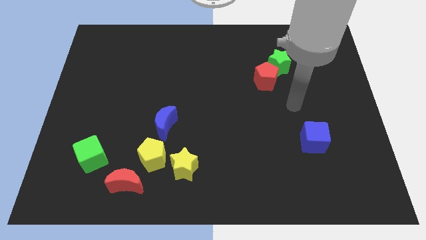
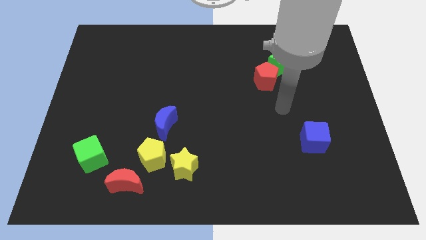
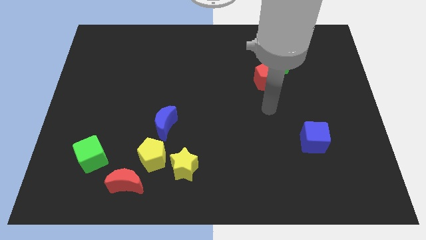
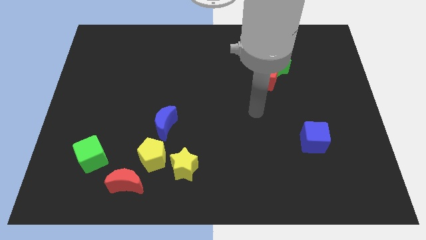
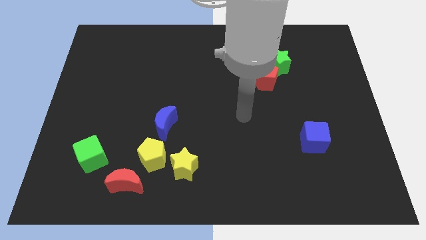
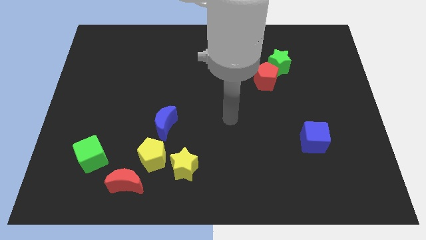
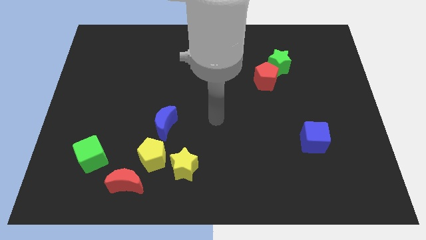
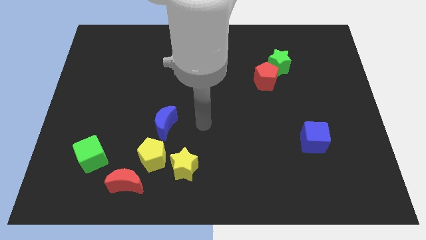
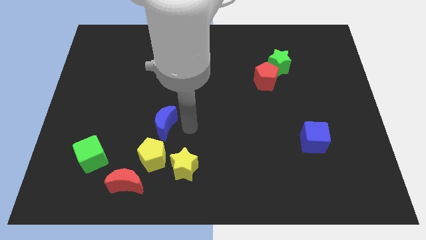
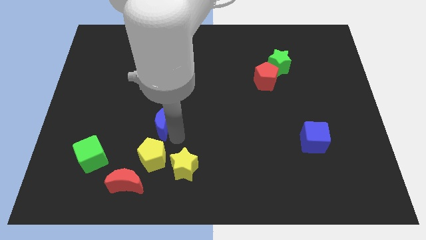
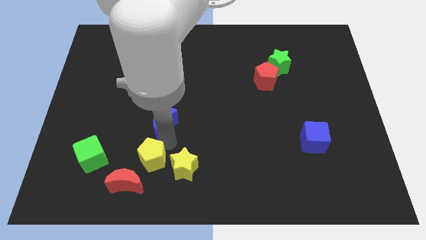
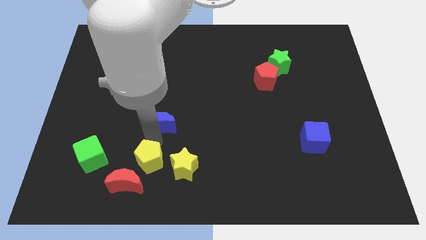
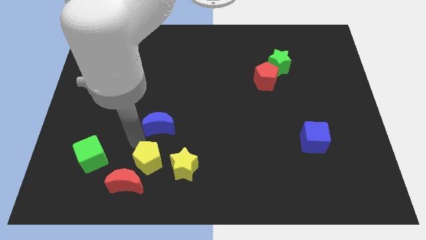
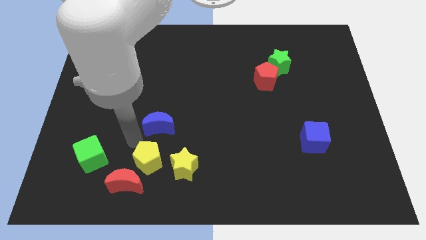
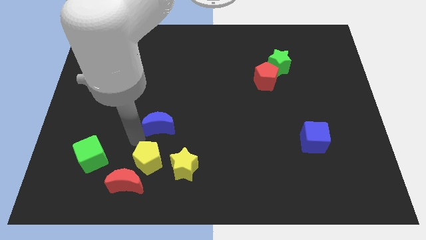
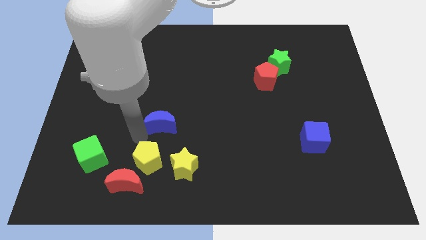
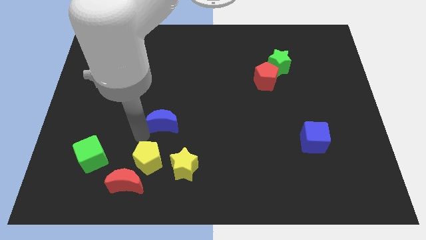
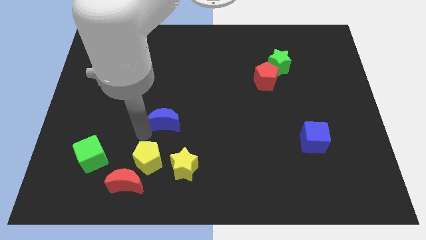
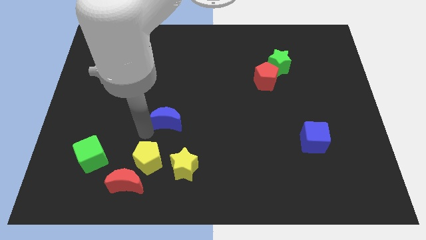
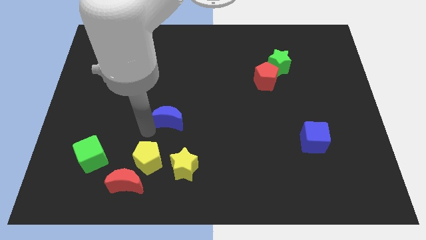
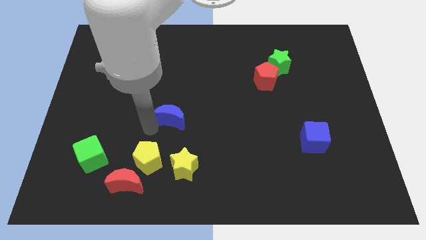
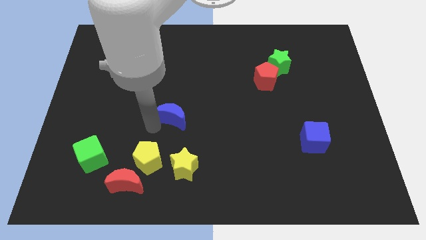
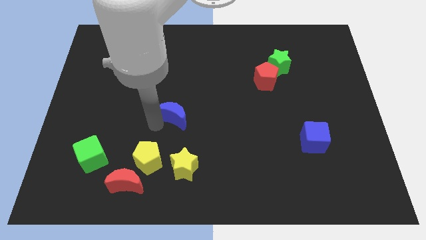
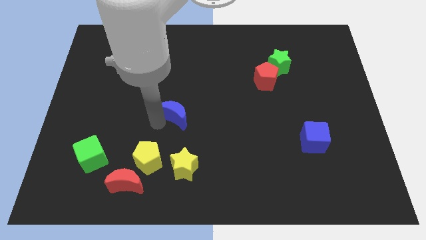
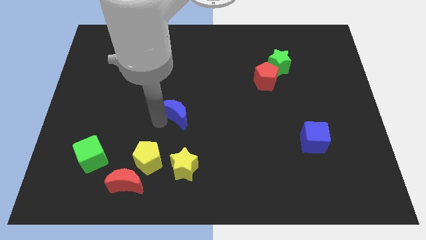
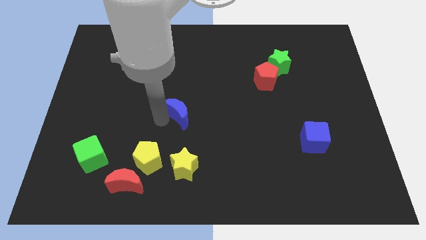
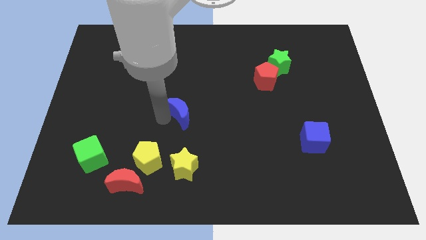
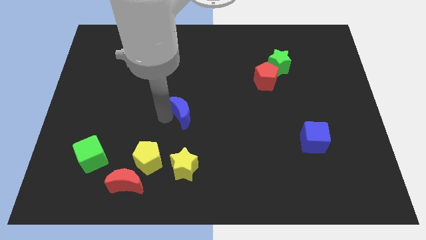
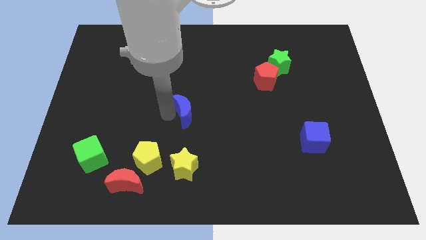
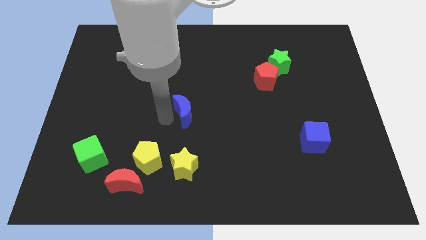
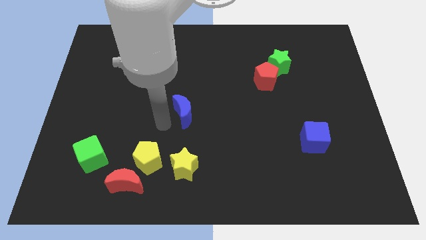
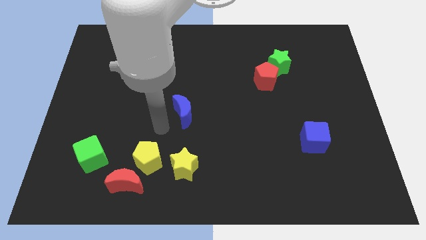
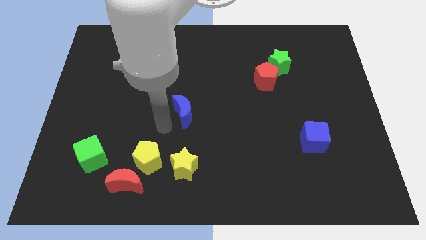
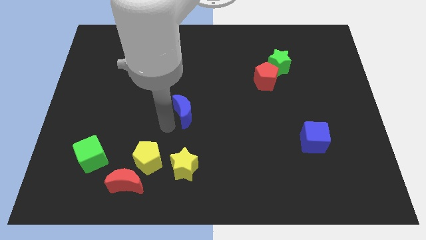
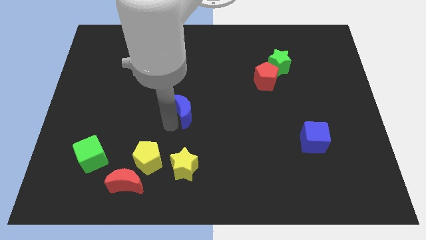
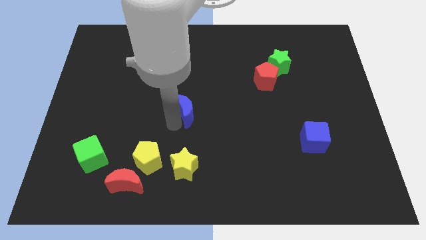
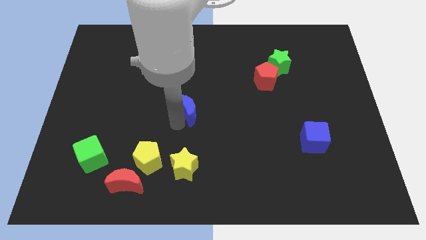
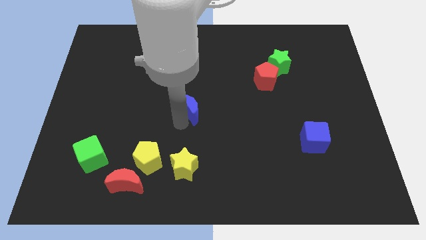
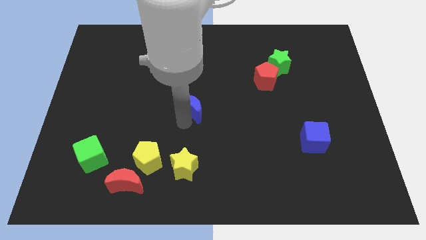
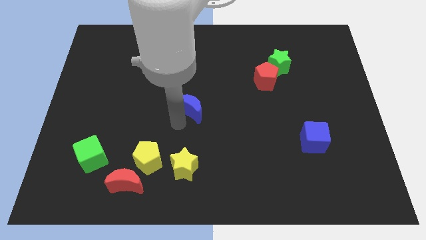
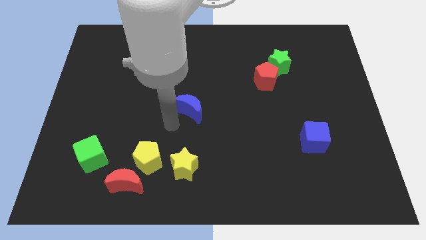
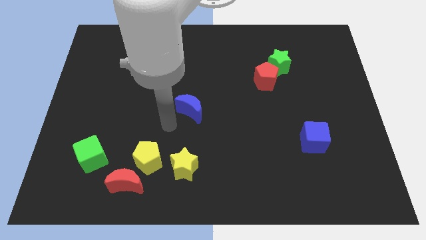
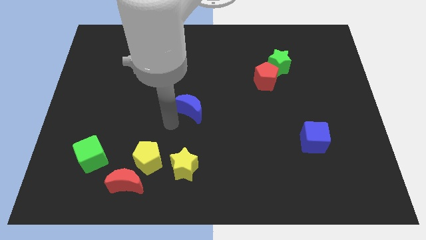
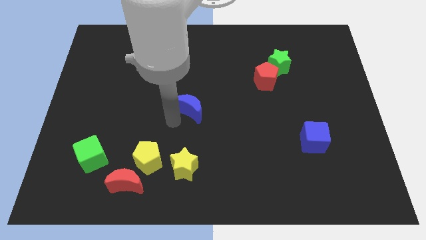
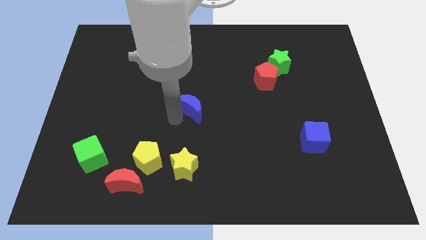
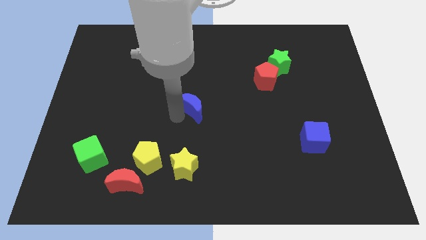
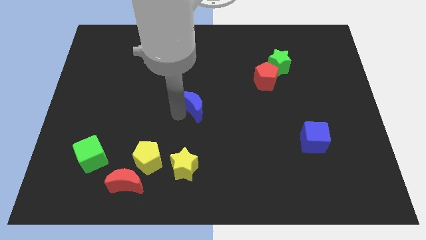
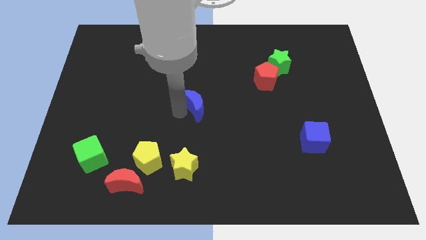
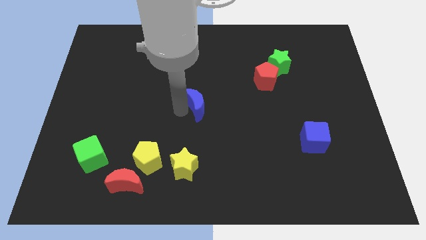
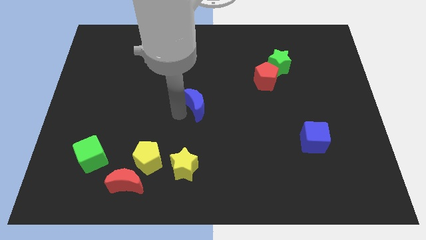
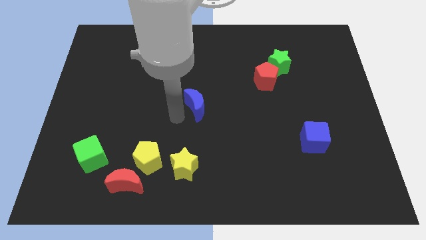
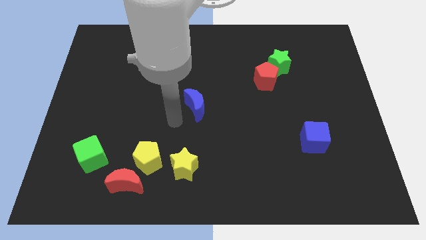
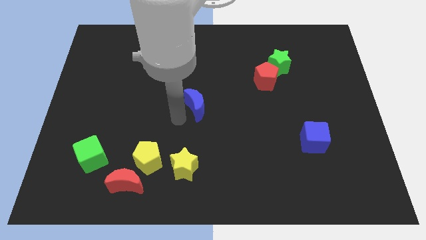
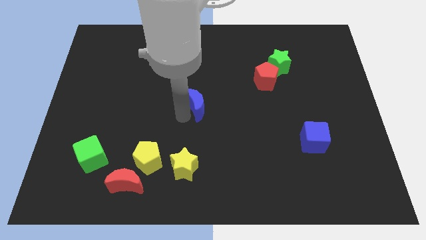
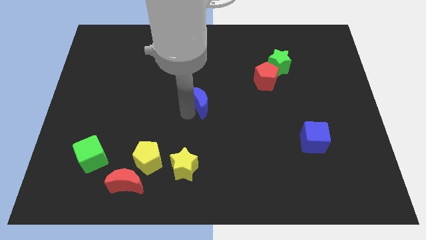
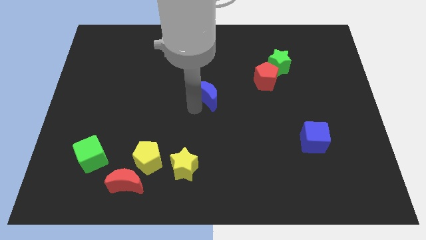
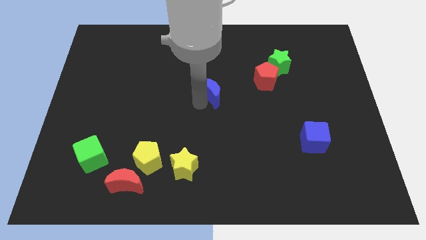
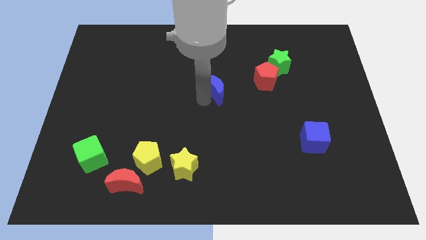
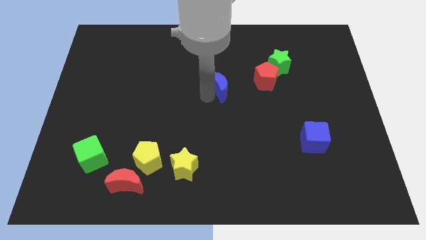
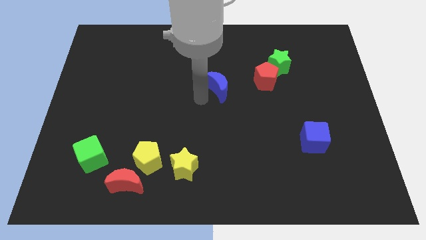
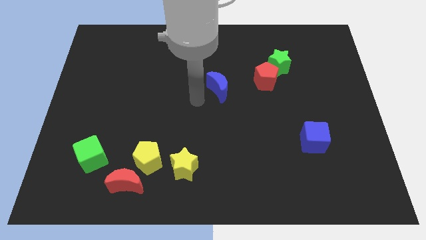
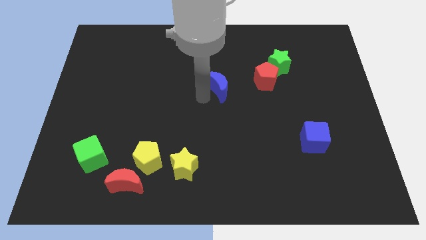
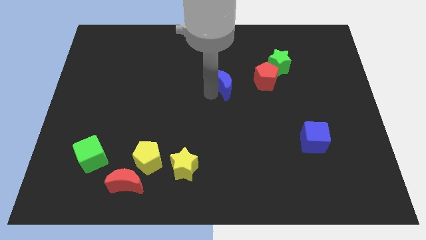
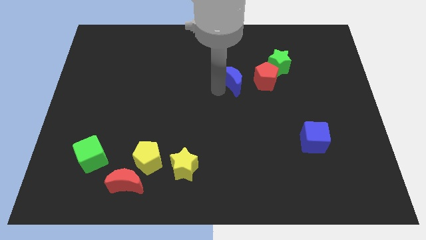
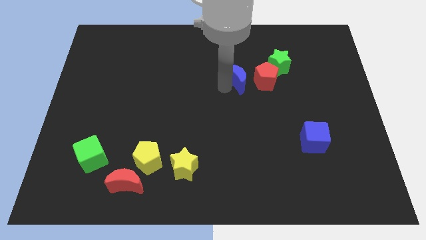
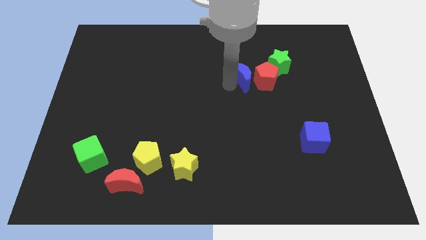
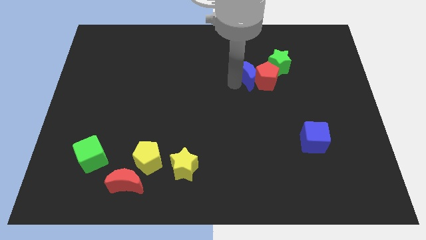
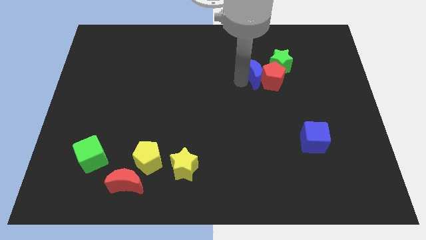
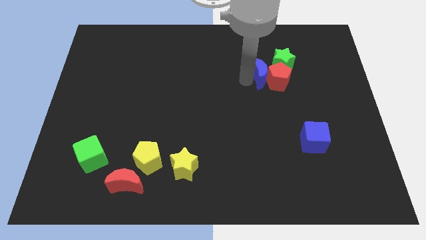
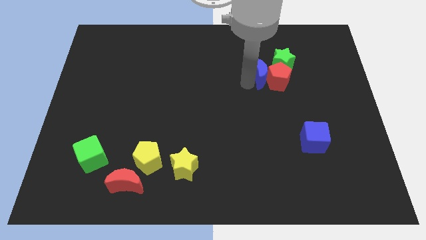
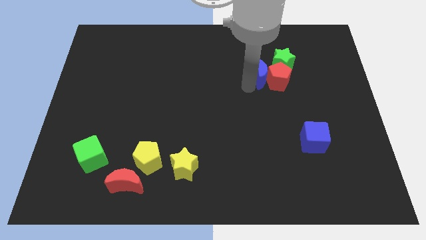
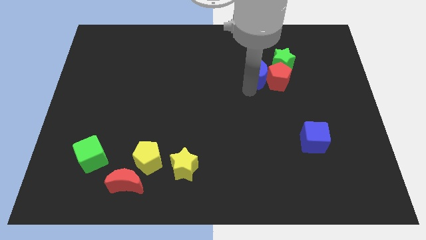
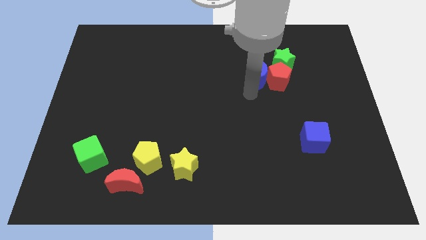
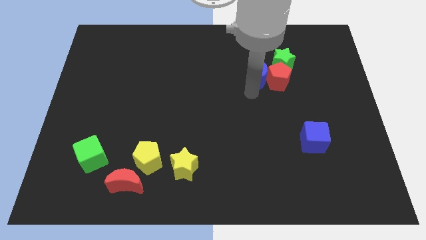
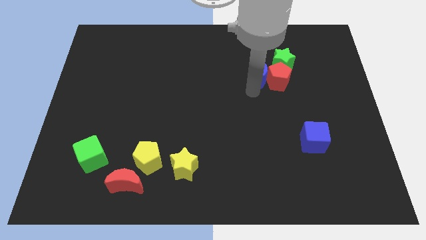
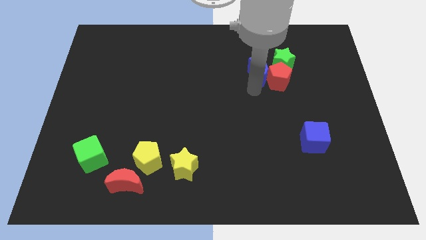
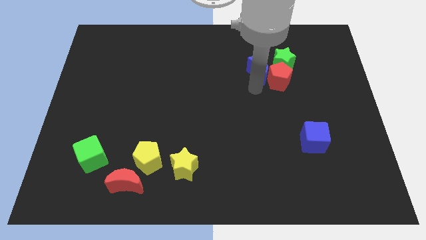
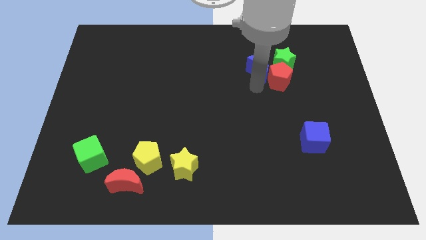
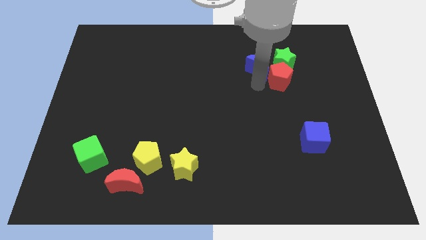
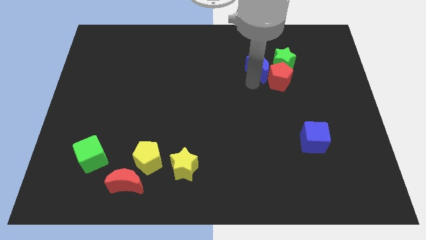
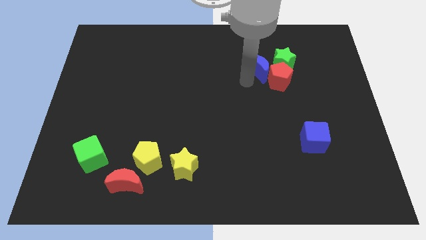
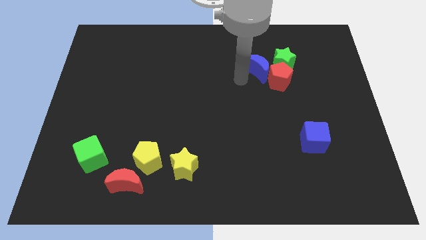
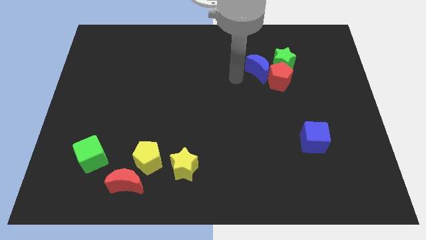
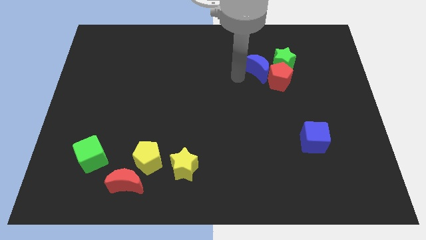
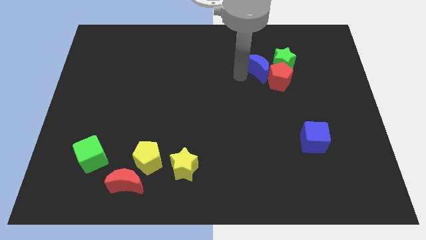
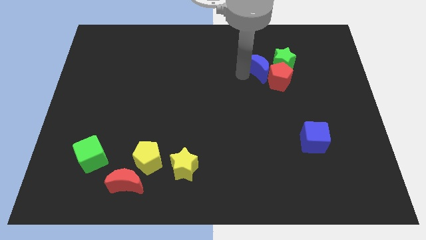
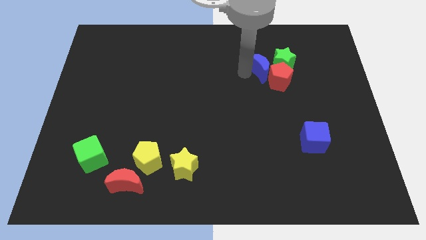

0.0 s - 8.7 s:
put the blue moon to the green star
